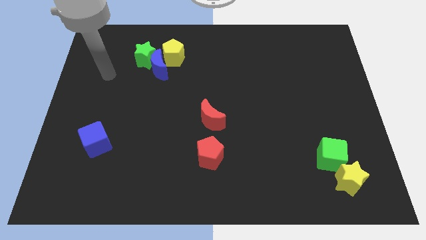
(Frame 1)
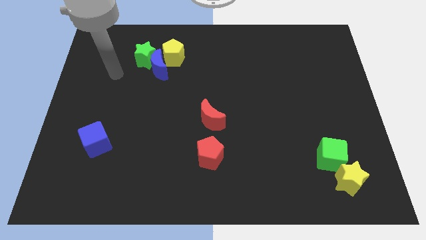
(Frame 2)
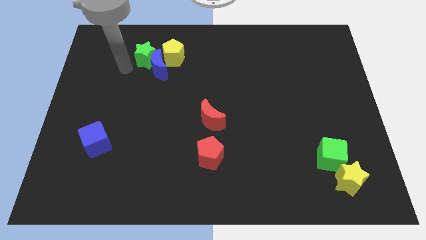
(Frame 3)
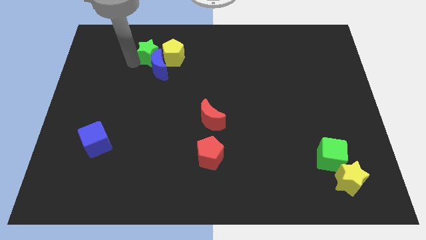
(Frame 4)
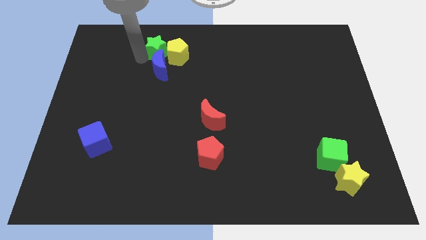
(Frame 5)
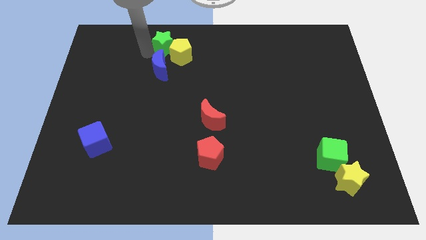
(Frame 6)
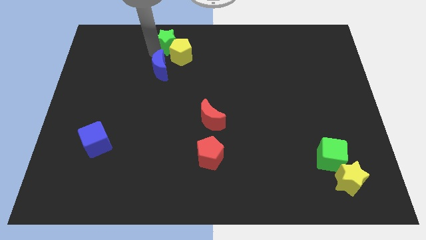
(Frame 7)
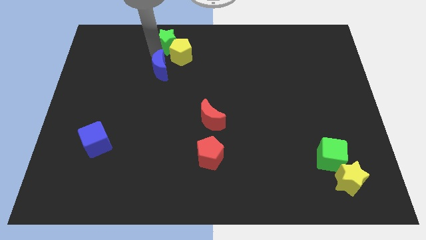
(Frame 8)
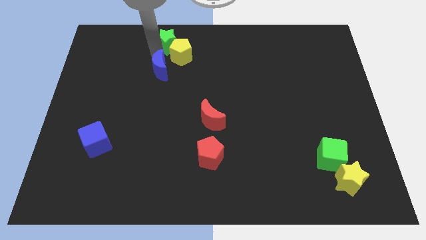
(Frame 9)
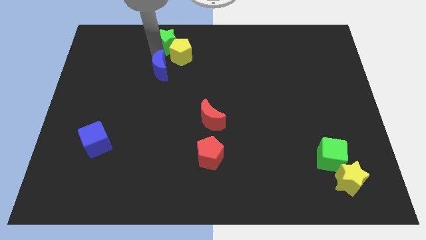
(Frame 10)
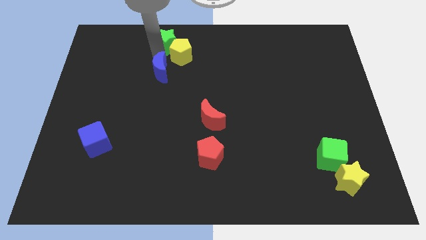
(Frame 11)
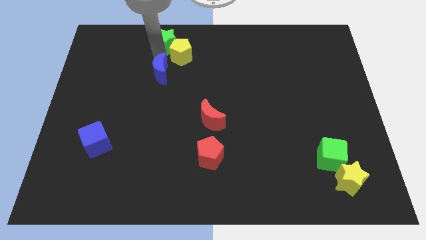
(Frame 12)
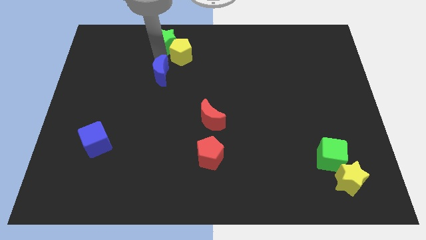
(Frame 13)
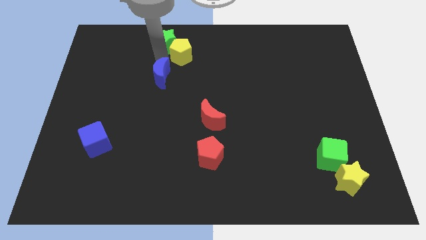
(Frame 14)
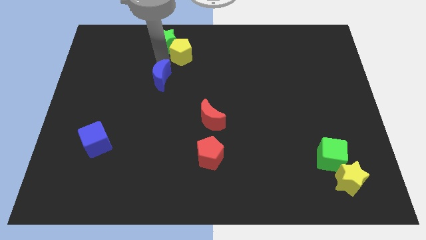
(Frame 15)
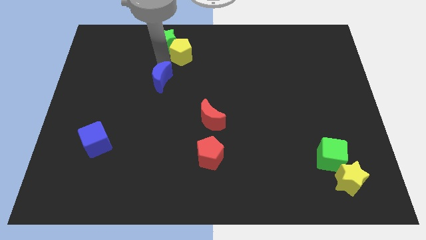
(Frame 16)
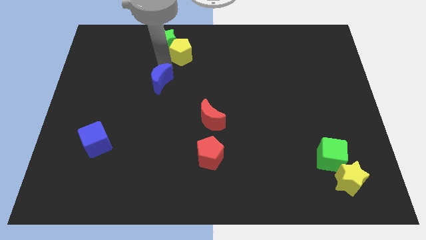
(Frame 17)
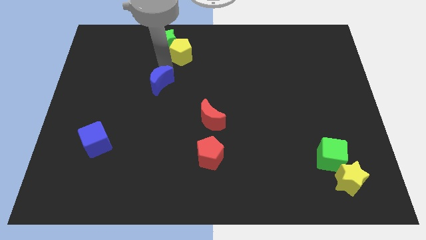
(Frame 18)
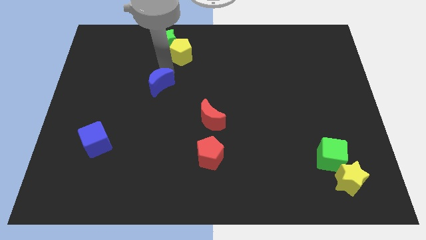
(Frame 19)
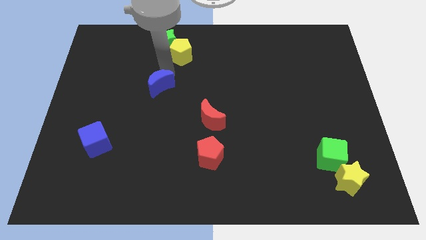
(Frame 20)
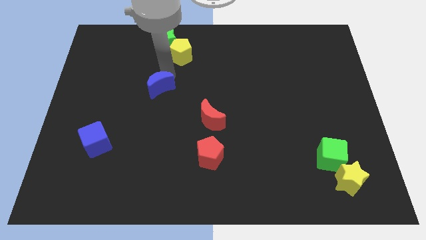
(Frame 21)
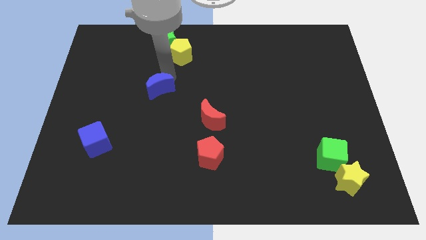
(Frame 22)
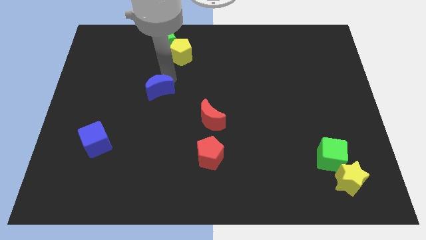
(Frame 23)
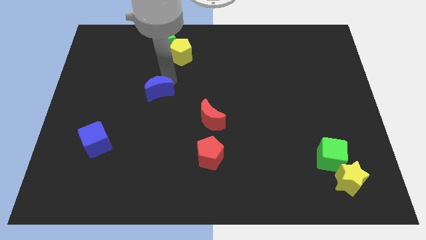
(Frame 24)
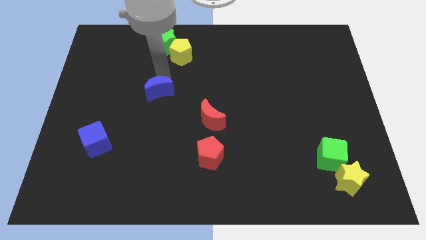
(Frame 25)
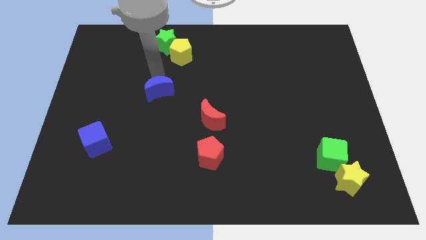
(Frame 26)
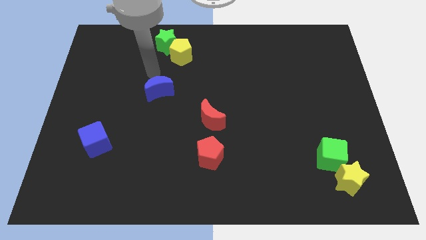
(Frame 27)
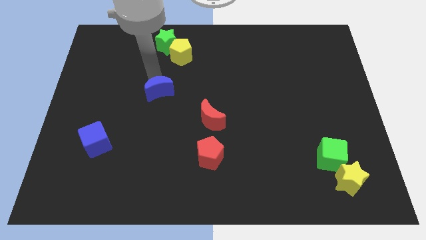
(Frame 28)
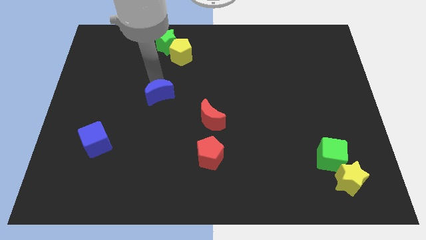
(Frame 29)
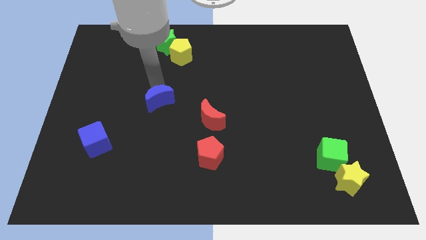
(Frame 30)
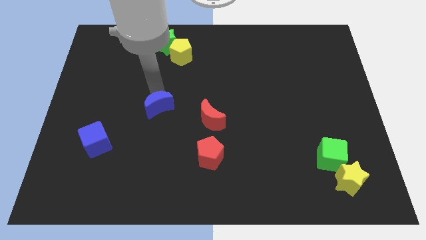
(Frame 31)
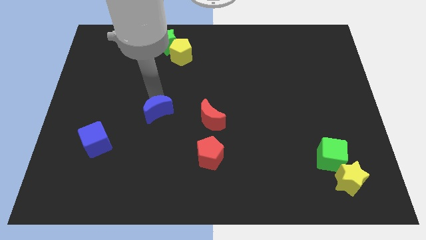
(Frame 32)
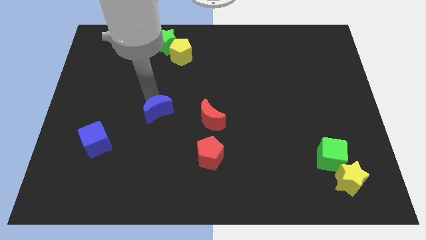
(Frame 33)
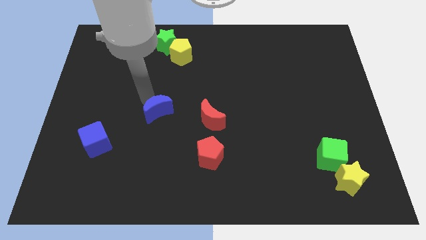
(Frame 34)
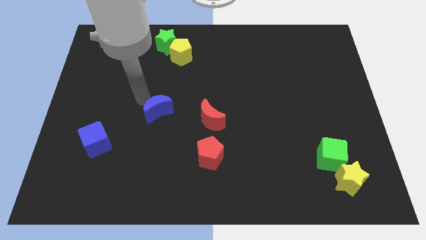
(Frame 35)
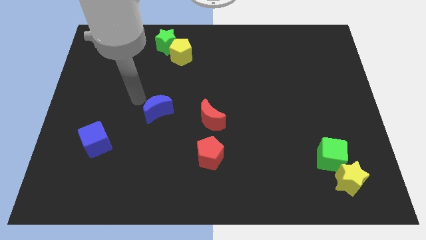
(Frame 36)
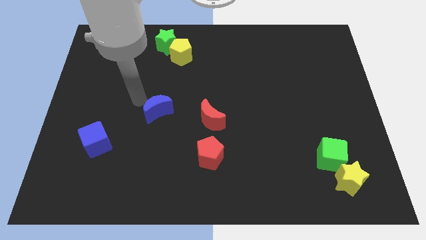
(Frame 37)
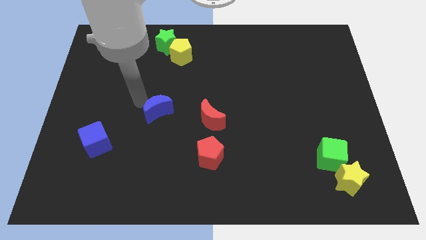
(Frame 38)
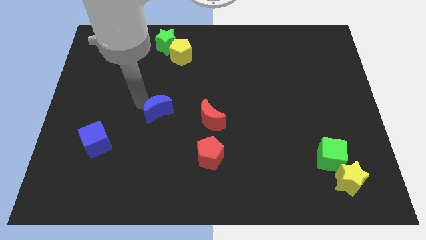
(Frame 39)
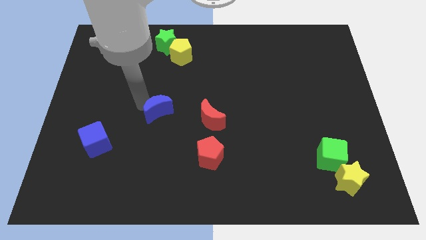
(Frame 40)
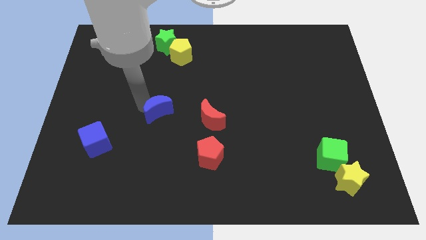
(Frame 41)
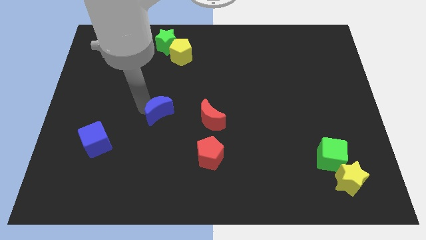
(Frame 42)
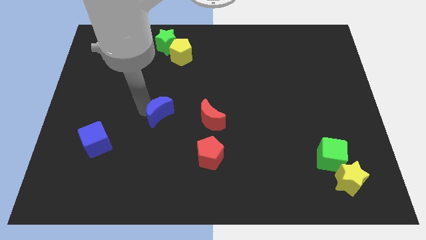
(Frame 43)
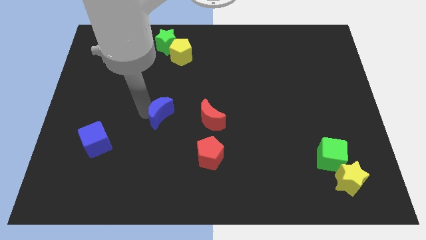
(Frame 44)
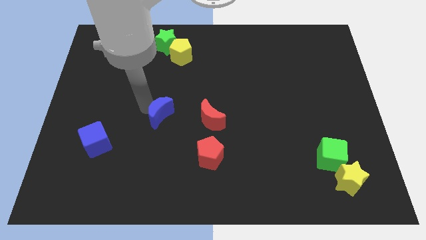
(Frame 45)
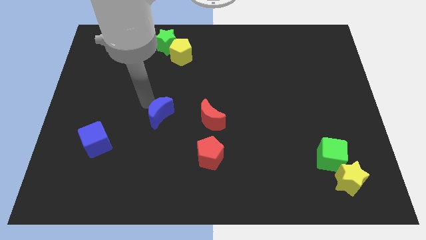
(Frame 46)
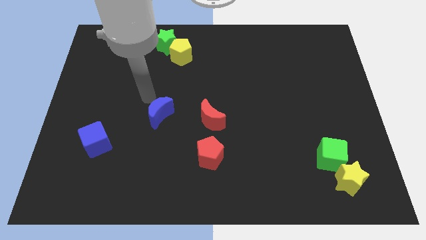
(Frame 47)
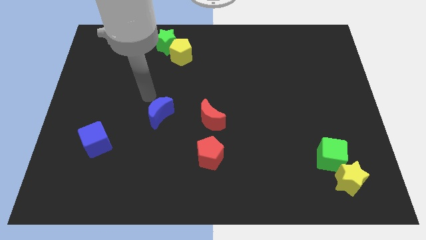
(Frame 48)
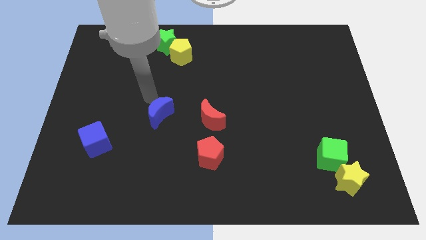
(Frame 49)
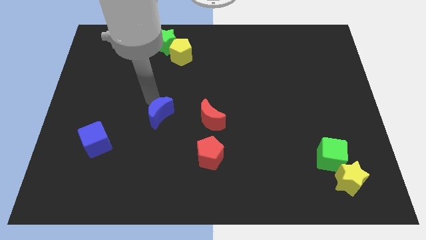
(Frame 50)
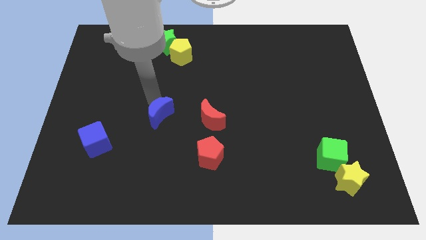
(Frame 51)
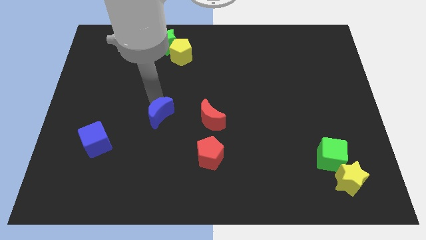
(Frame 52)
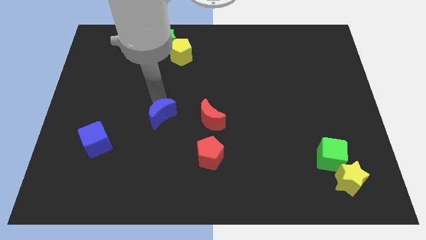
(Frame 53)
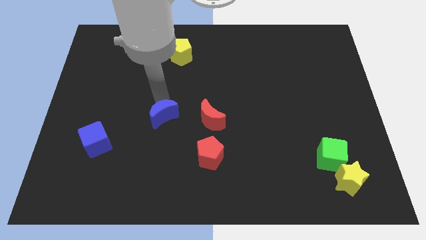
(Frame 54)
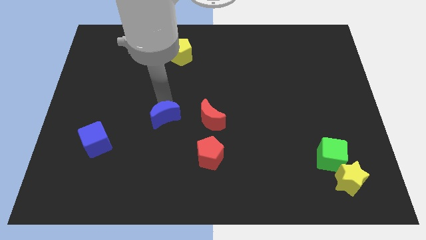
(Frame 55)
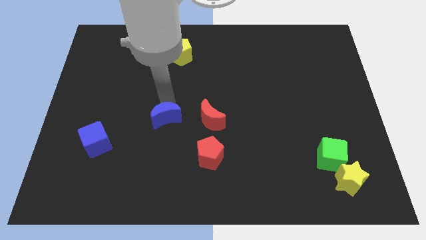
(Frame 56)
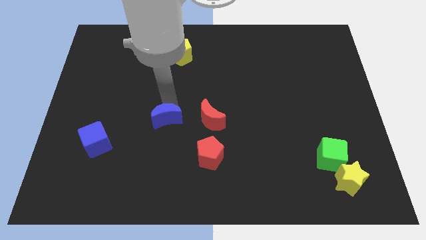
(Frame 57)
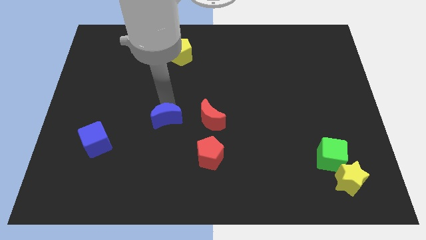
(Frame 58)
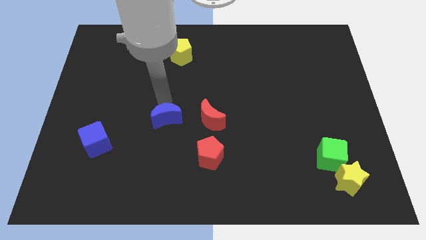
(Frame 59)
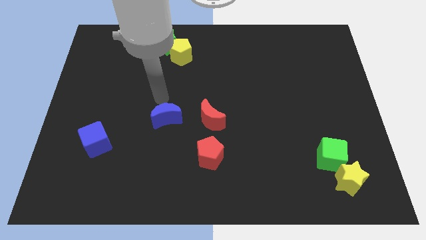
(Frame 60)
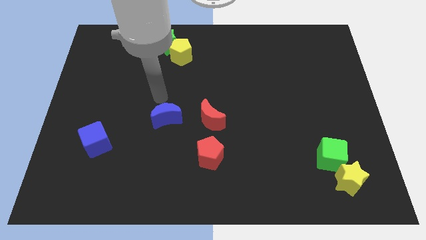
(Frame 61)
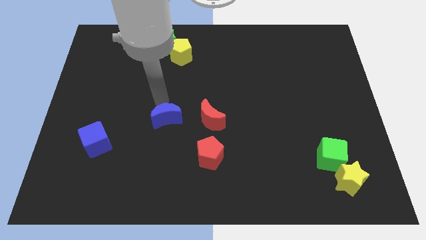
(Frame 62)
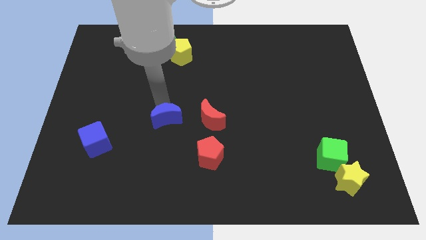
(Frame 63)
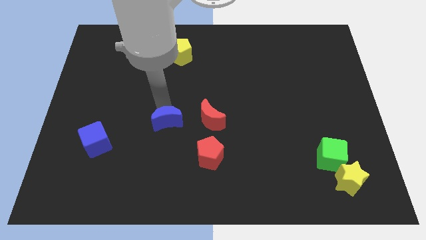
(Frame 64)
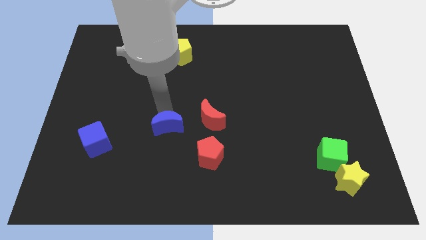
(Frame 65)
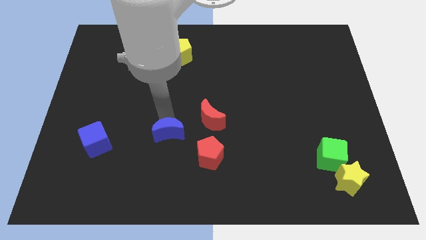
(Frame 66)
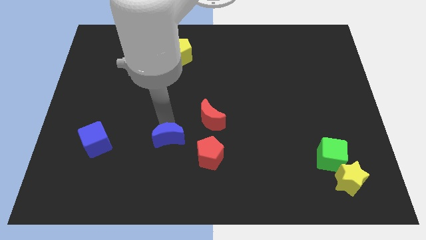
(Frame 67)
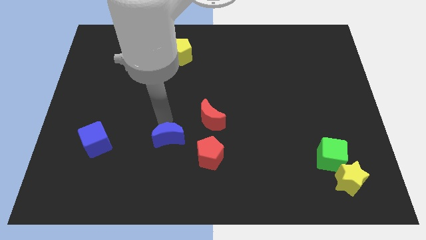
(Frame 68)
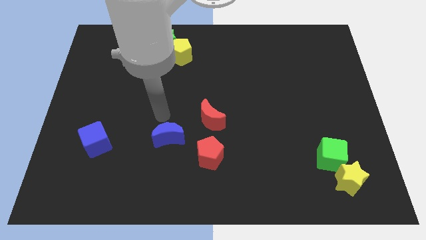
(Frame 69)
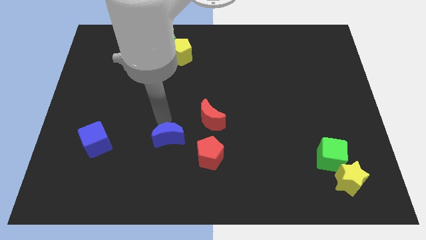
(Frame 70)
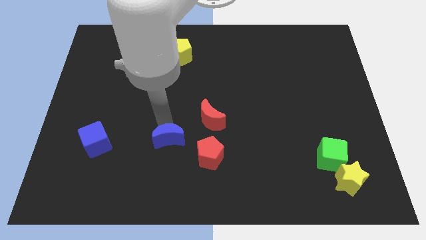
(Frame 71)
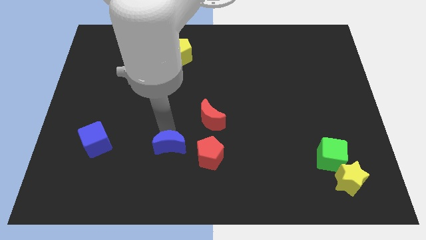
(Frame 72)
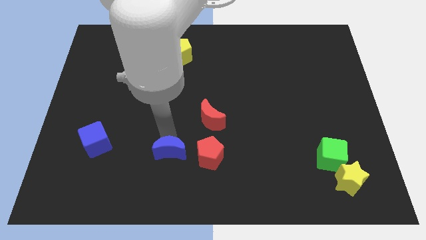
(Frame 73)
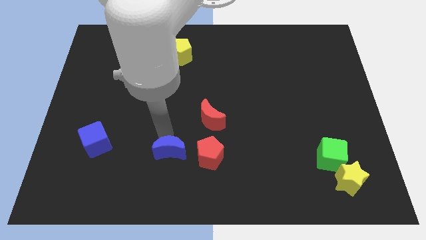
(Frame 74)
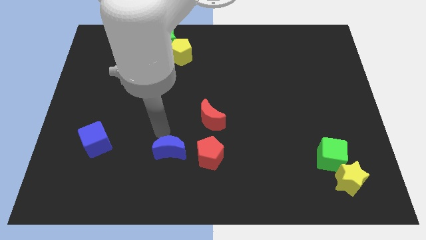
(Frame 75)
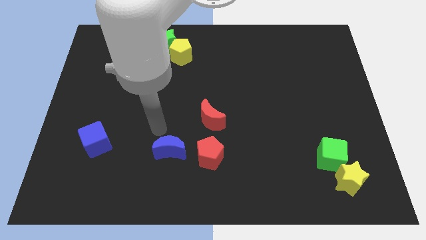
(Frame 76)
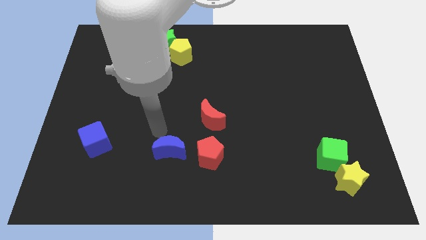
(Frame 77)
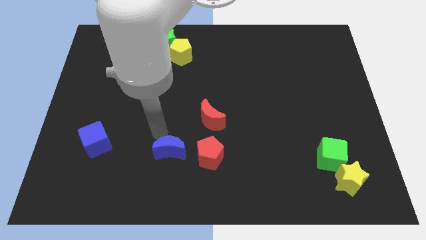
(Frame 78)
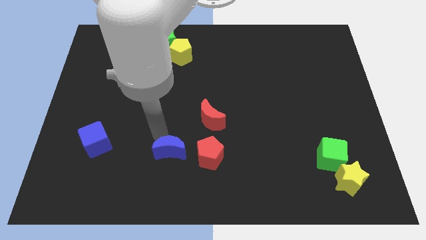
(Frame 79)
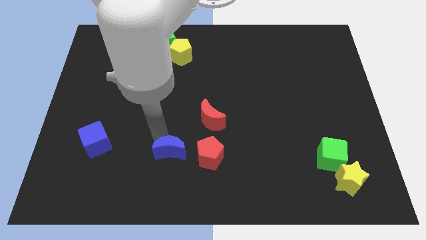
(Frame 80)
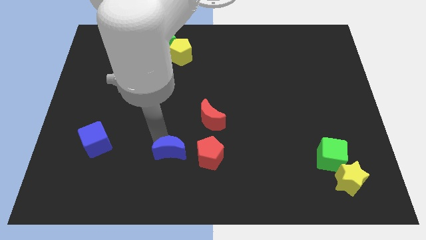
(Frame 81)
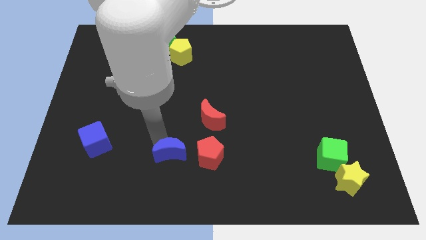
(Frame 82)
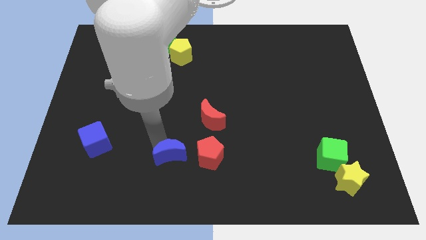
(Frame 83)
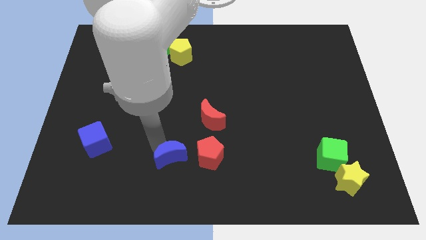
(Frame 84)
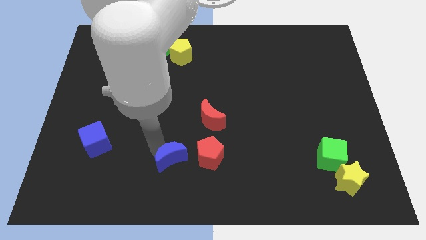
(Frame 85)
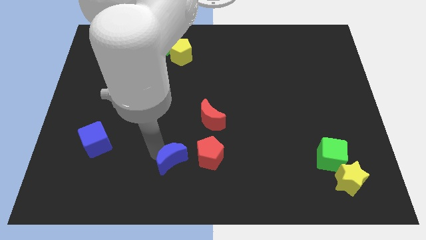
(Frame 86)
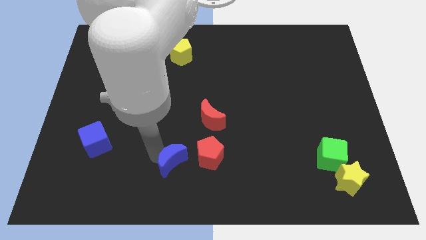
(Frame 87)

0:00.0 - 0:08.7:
push the blue moon to the bottom left side of the red pentagon
